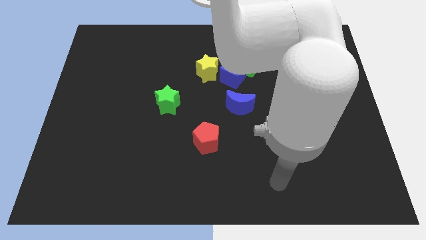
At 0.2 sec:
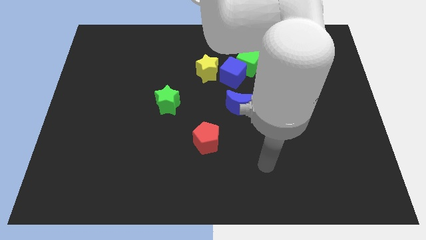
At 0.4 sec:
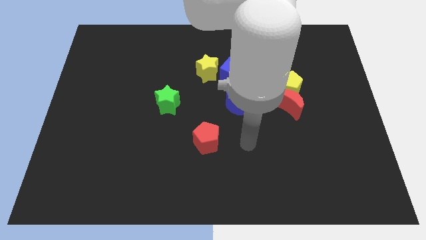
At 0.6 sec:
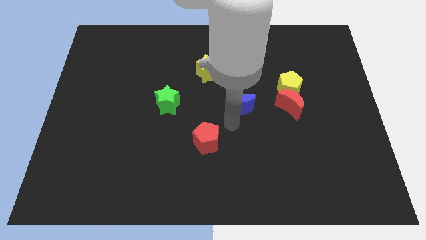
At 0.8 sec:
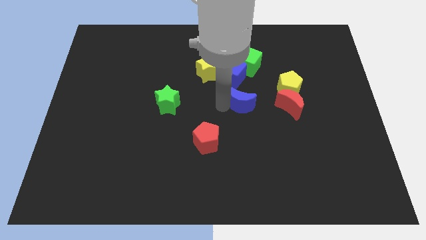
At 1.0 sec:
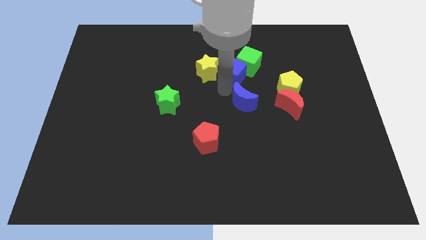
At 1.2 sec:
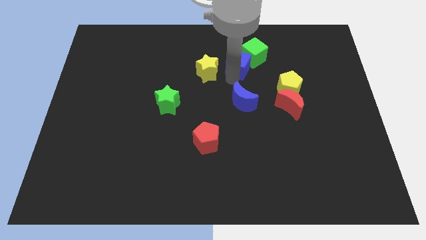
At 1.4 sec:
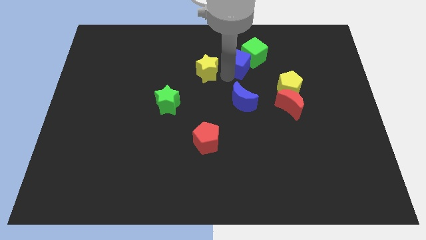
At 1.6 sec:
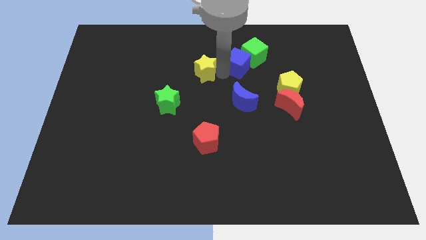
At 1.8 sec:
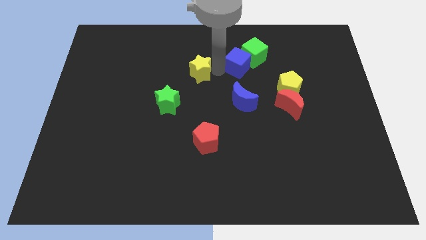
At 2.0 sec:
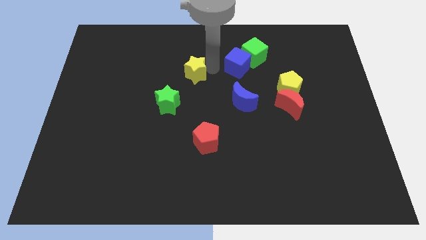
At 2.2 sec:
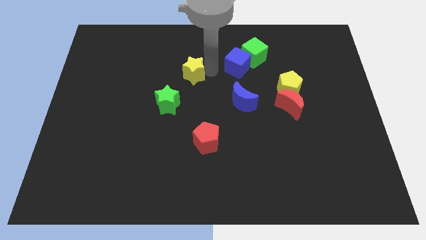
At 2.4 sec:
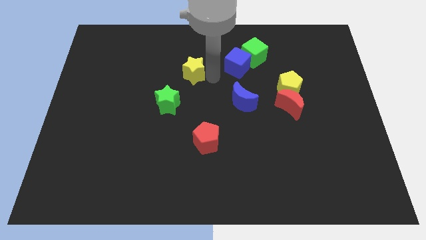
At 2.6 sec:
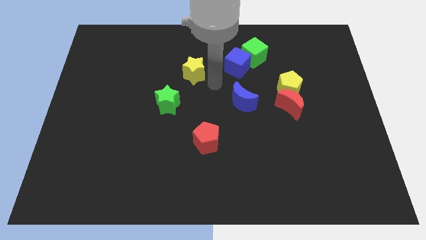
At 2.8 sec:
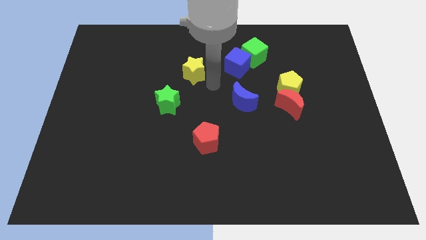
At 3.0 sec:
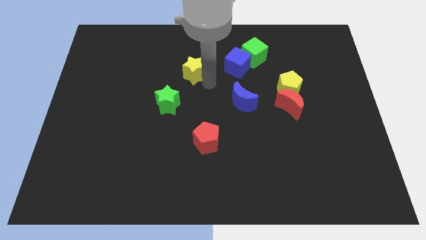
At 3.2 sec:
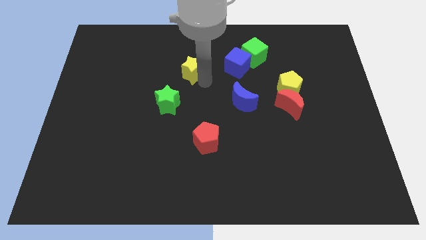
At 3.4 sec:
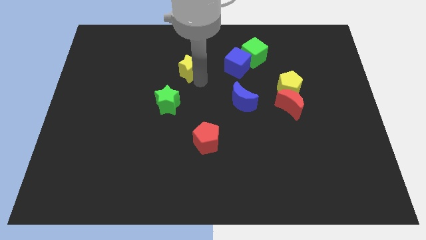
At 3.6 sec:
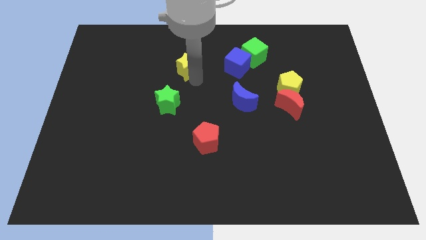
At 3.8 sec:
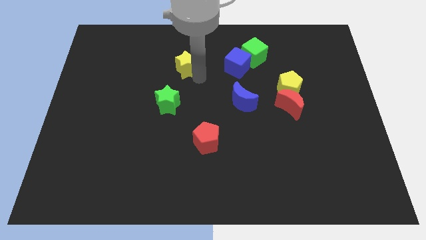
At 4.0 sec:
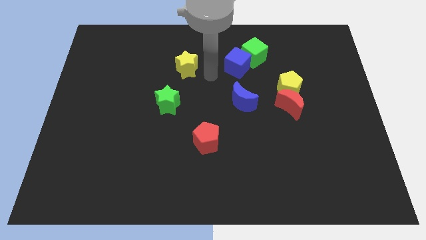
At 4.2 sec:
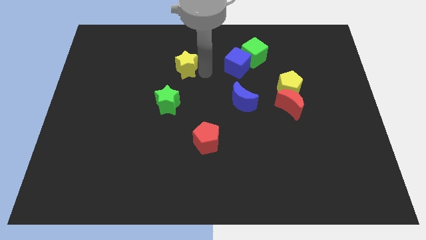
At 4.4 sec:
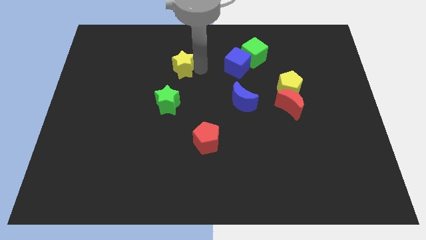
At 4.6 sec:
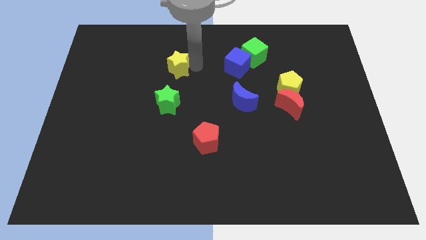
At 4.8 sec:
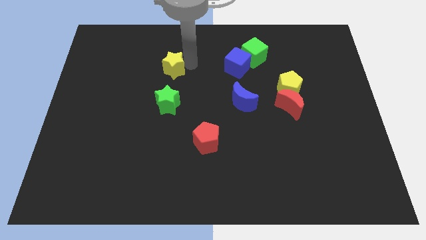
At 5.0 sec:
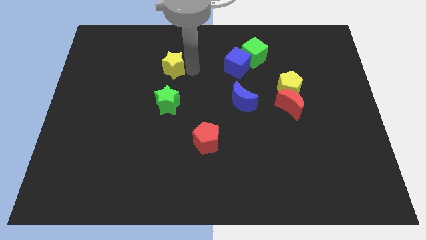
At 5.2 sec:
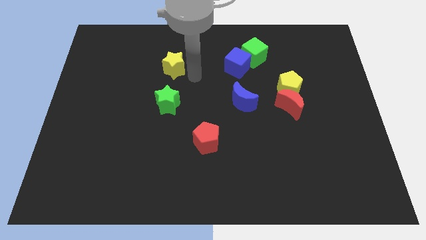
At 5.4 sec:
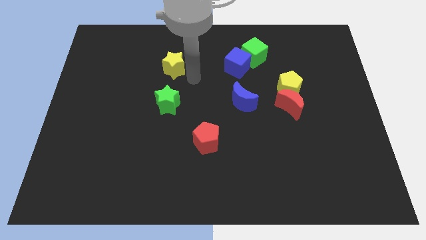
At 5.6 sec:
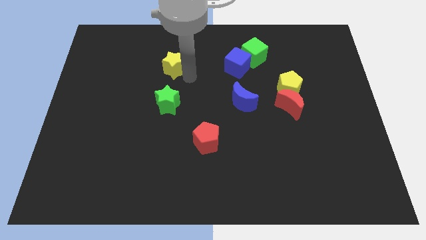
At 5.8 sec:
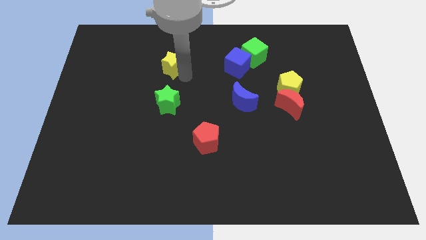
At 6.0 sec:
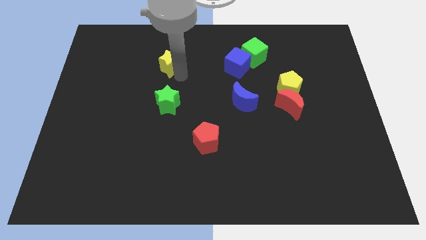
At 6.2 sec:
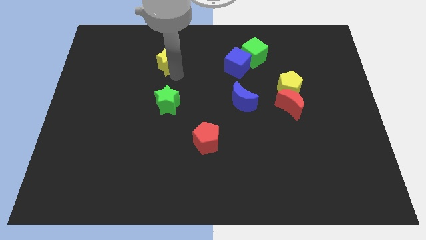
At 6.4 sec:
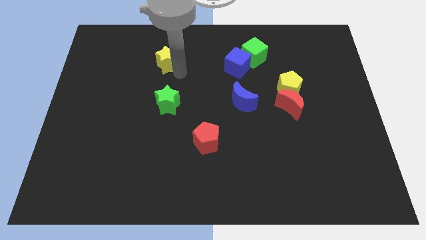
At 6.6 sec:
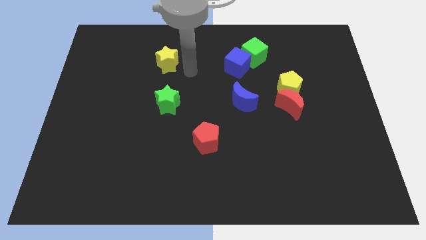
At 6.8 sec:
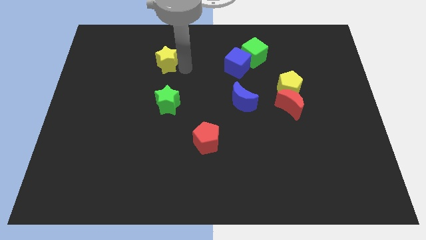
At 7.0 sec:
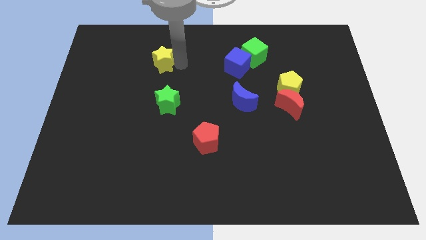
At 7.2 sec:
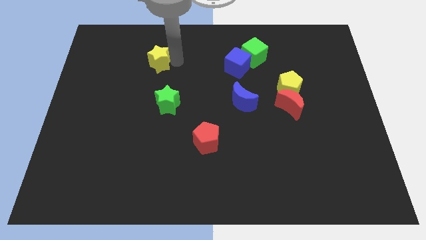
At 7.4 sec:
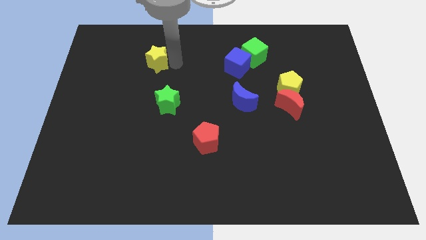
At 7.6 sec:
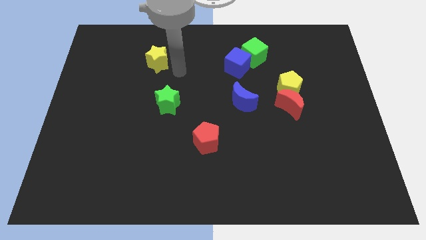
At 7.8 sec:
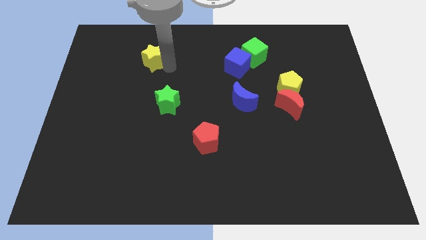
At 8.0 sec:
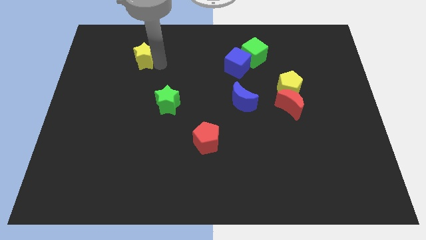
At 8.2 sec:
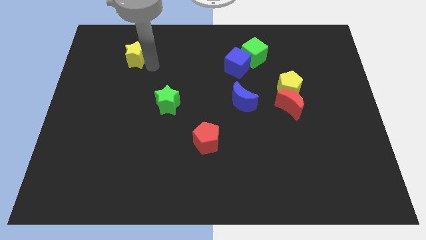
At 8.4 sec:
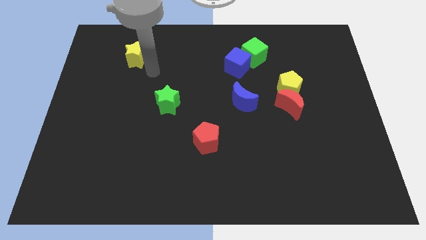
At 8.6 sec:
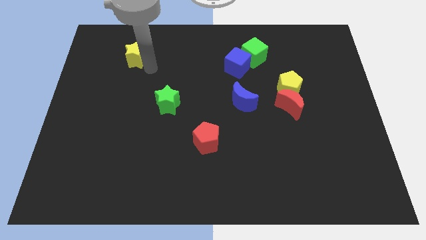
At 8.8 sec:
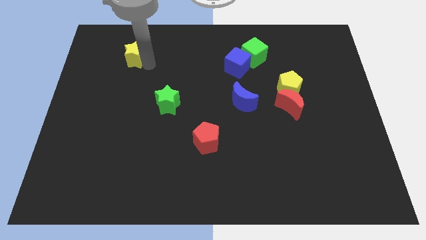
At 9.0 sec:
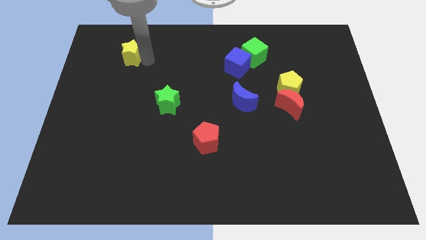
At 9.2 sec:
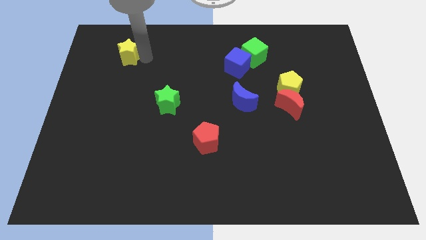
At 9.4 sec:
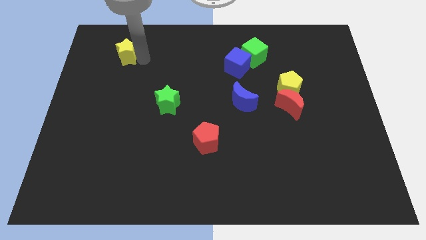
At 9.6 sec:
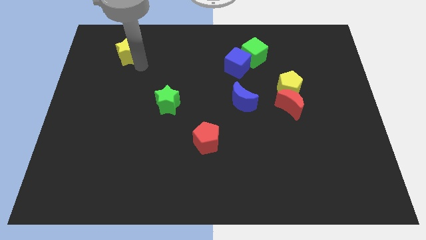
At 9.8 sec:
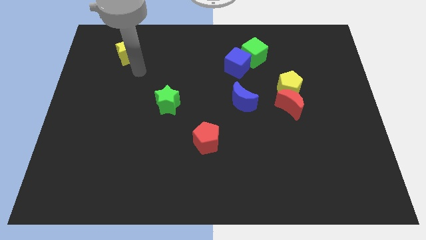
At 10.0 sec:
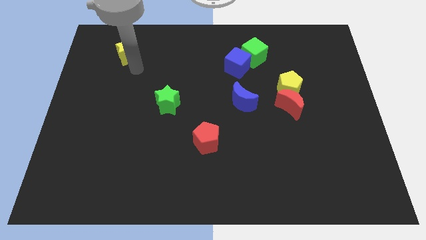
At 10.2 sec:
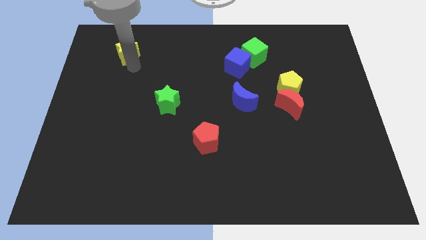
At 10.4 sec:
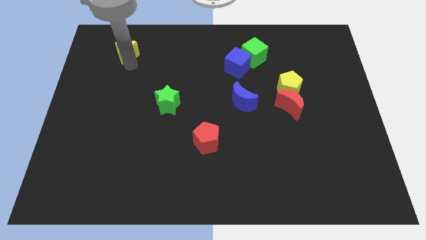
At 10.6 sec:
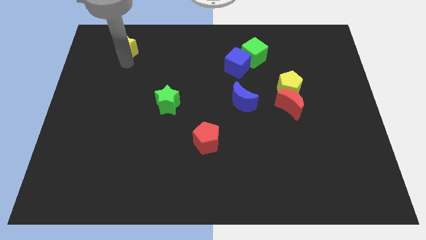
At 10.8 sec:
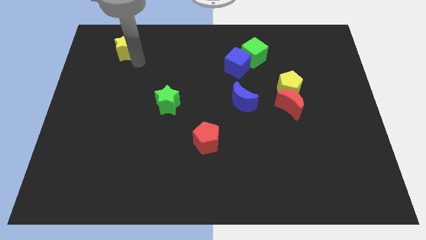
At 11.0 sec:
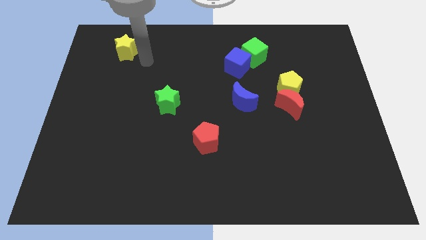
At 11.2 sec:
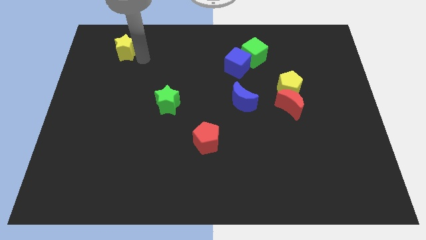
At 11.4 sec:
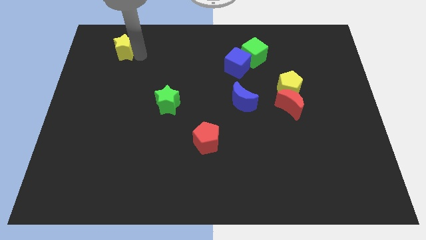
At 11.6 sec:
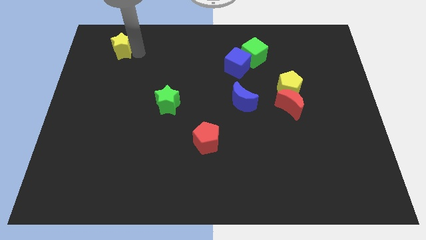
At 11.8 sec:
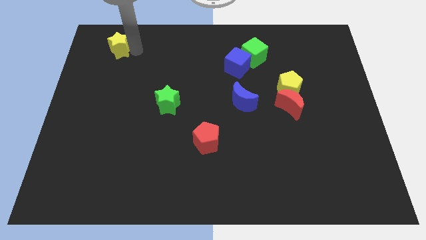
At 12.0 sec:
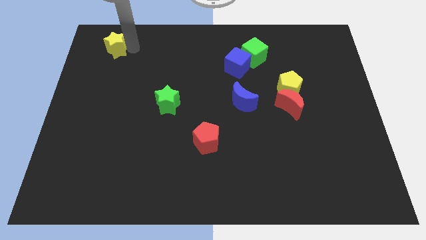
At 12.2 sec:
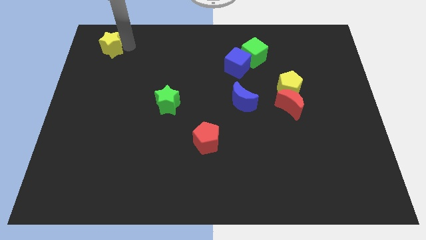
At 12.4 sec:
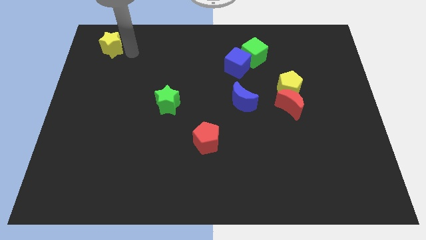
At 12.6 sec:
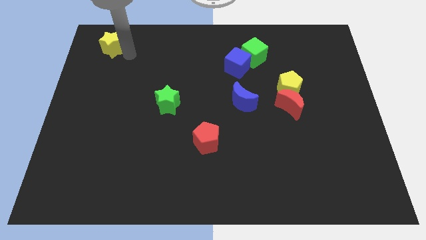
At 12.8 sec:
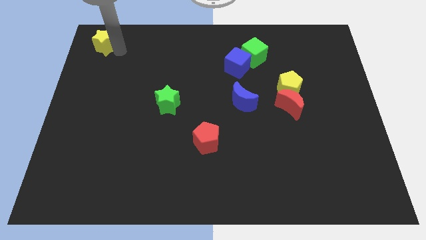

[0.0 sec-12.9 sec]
push the yellow star to the top left of the board
